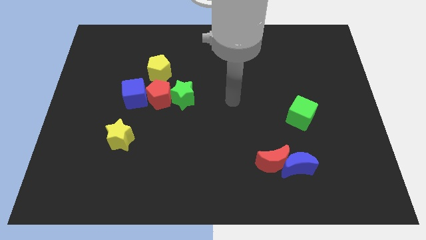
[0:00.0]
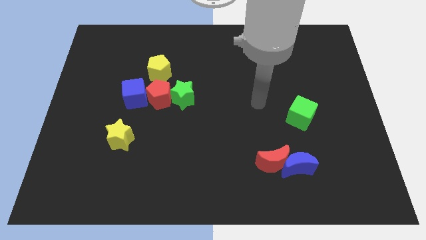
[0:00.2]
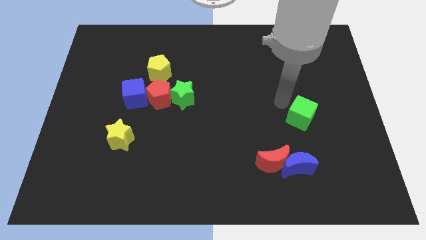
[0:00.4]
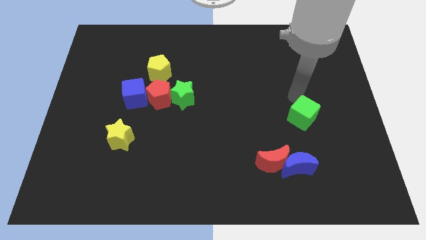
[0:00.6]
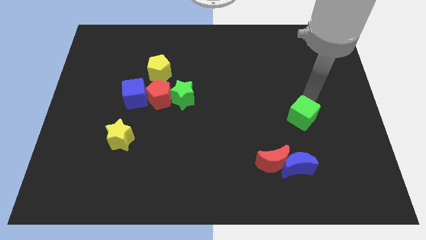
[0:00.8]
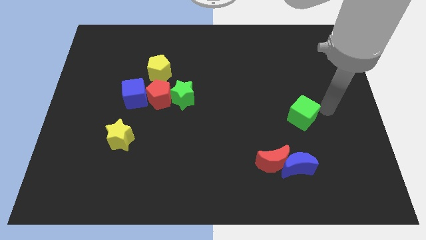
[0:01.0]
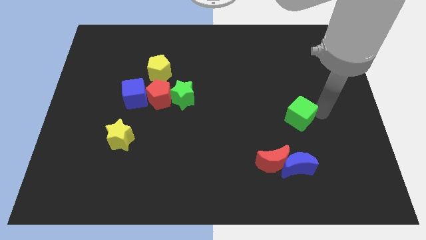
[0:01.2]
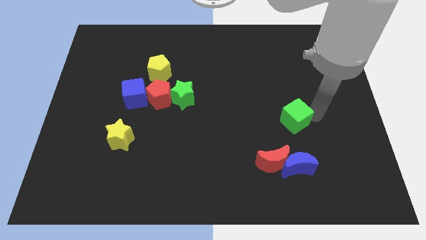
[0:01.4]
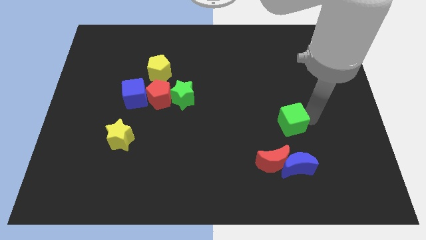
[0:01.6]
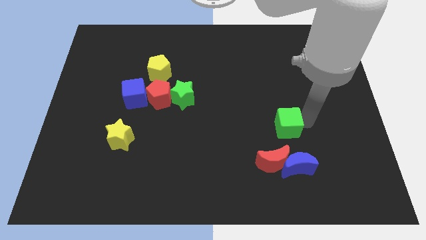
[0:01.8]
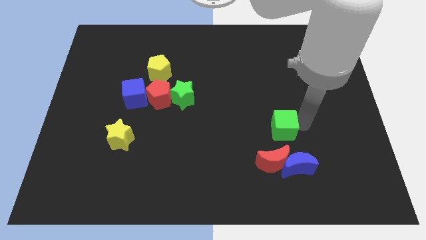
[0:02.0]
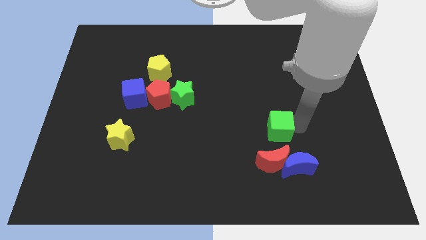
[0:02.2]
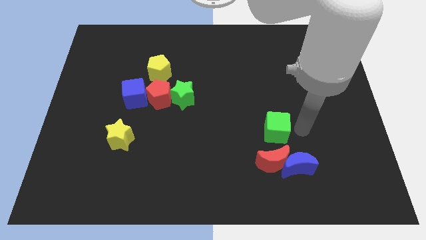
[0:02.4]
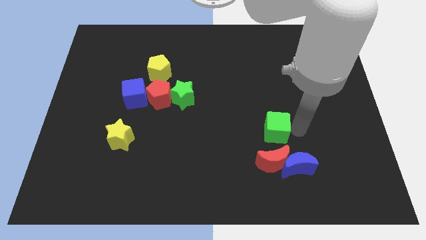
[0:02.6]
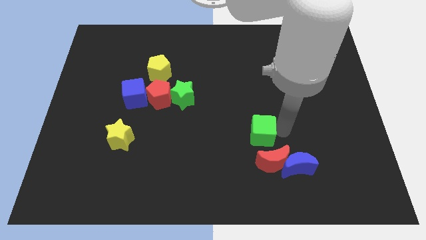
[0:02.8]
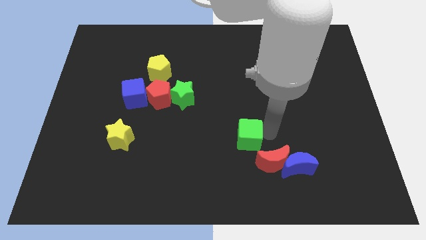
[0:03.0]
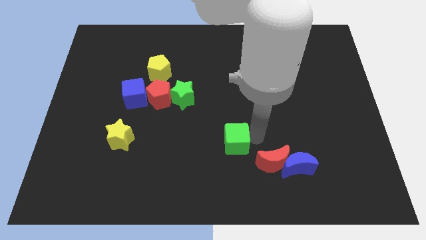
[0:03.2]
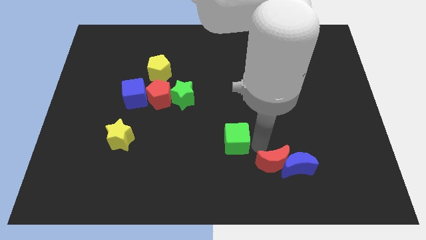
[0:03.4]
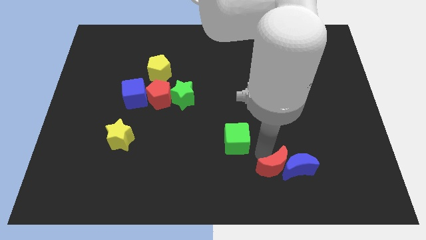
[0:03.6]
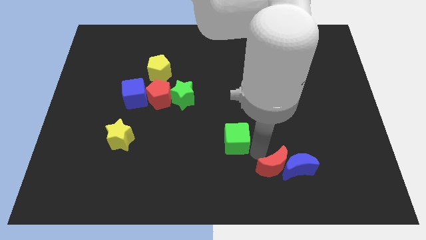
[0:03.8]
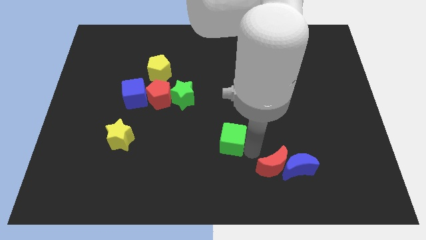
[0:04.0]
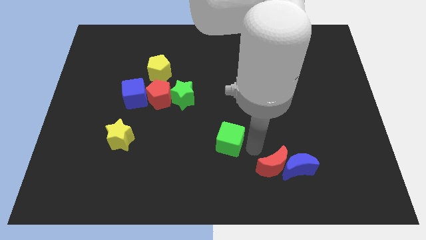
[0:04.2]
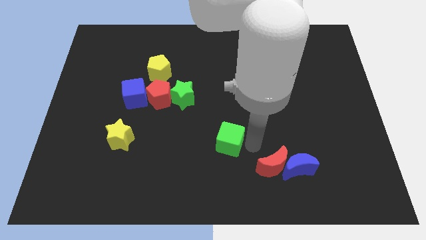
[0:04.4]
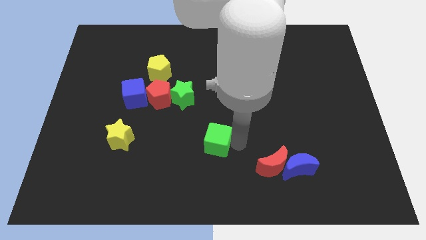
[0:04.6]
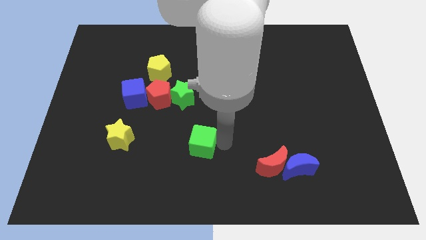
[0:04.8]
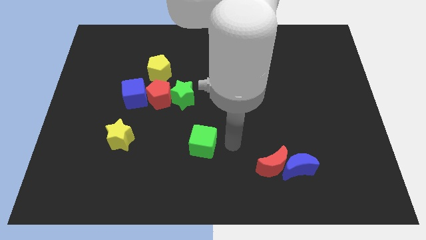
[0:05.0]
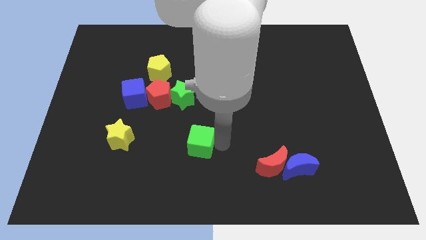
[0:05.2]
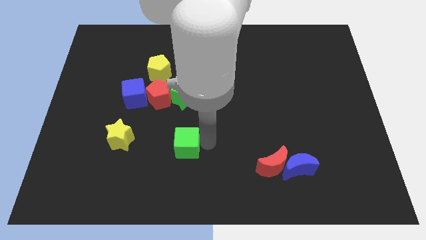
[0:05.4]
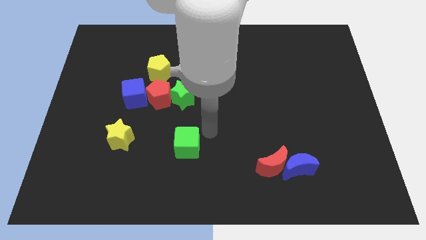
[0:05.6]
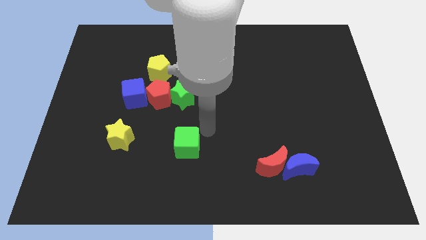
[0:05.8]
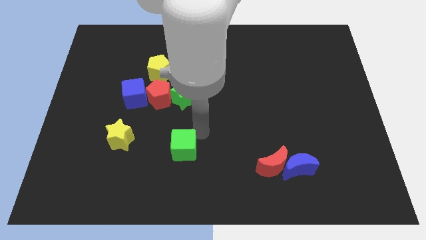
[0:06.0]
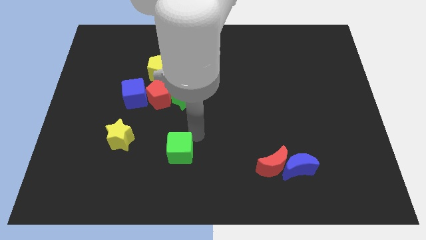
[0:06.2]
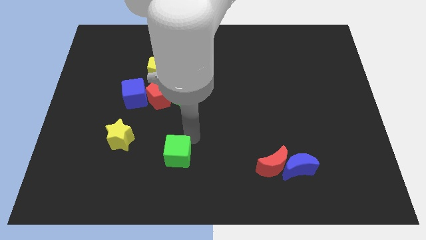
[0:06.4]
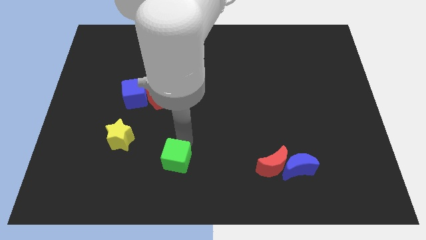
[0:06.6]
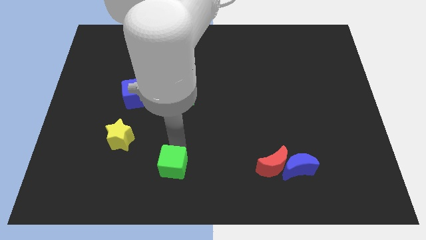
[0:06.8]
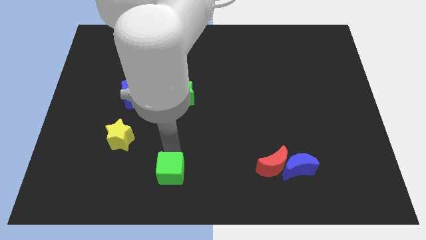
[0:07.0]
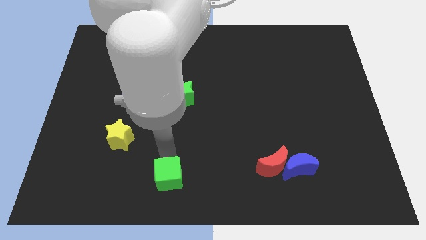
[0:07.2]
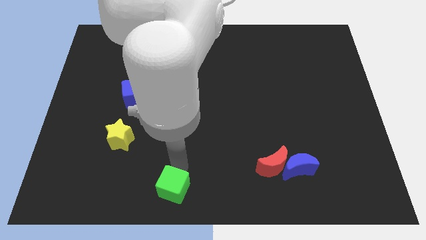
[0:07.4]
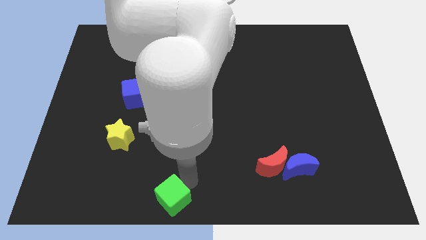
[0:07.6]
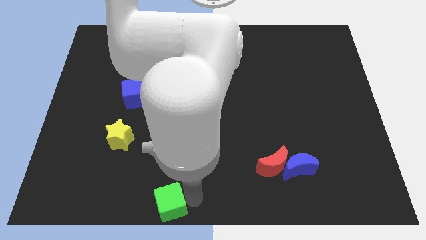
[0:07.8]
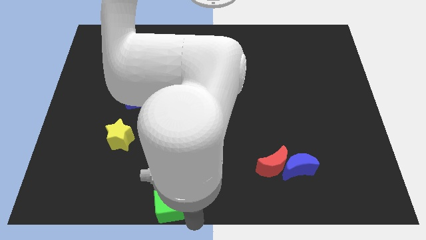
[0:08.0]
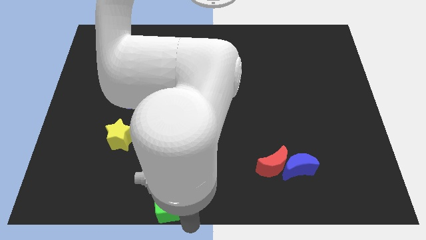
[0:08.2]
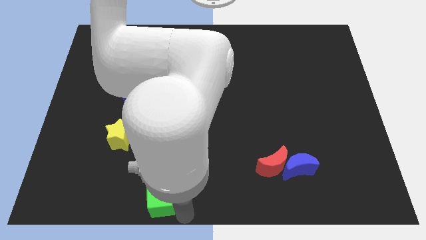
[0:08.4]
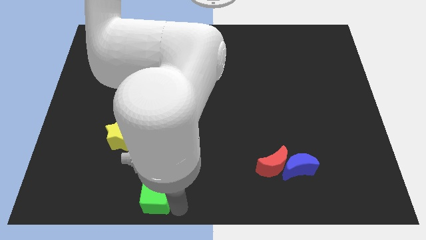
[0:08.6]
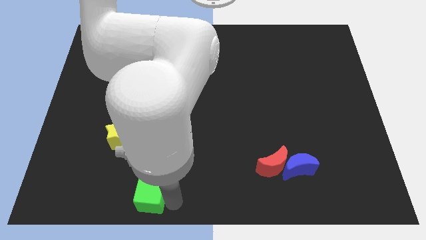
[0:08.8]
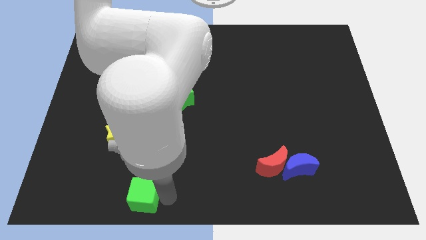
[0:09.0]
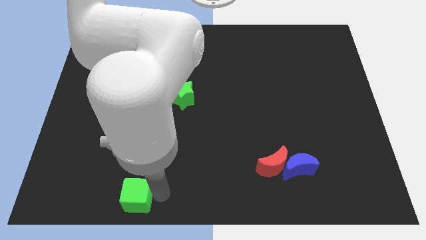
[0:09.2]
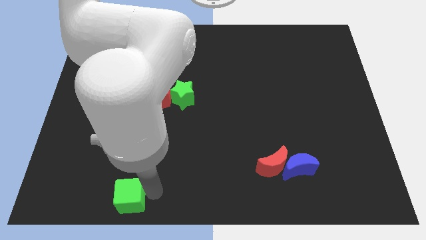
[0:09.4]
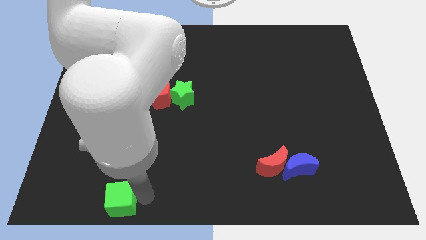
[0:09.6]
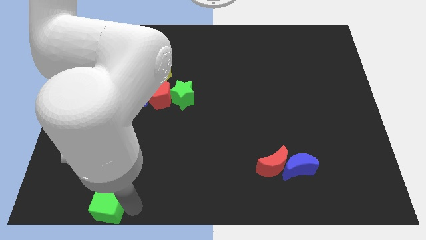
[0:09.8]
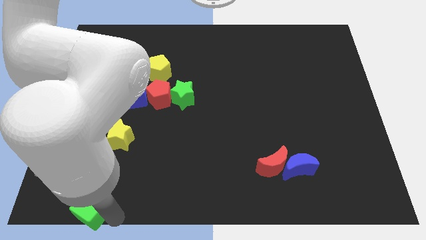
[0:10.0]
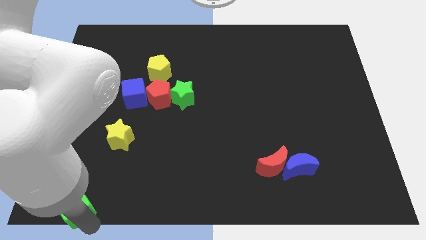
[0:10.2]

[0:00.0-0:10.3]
put the green cube to the bottom left corner
